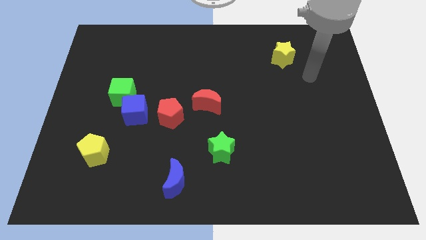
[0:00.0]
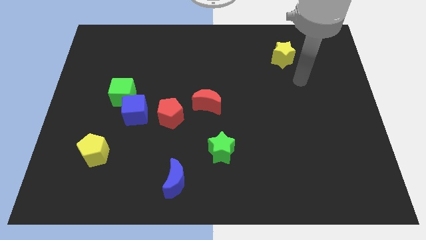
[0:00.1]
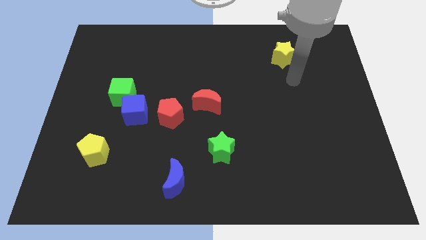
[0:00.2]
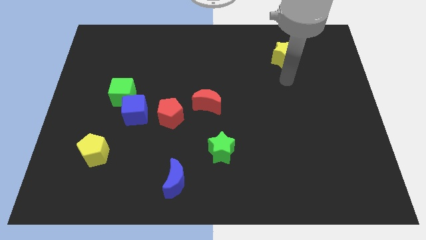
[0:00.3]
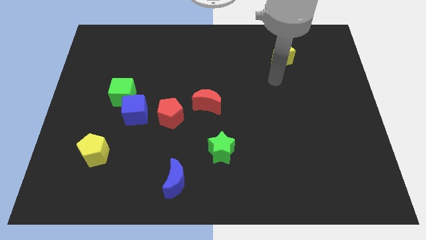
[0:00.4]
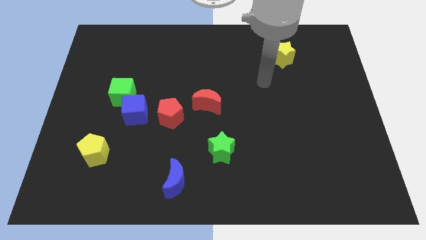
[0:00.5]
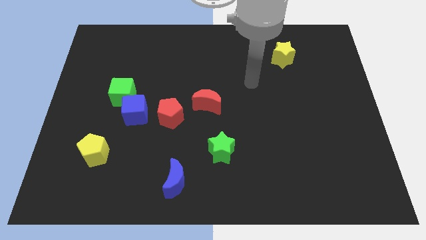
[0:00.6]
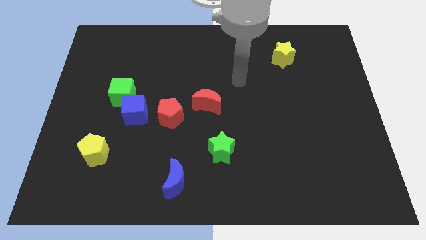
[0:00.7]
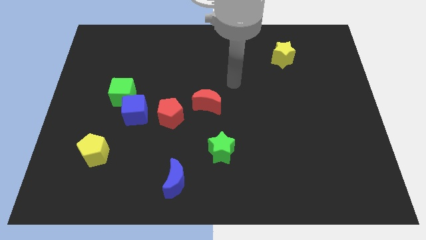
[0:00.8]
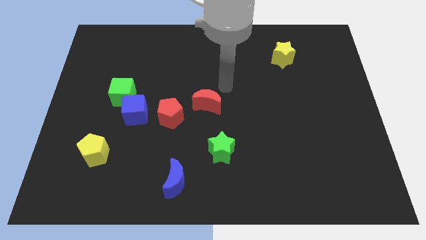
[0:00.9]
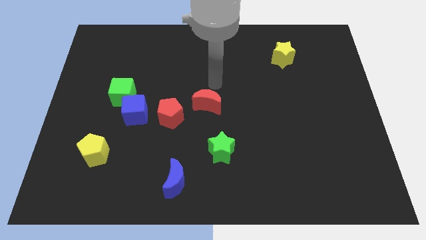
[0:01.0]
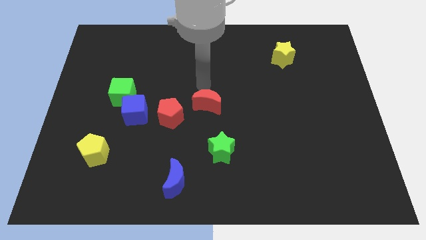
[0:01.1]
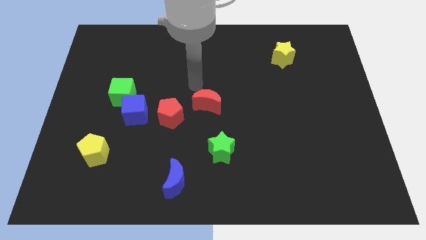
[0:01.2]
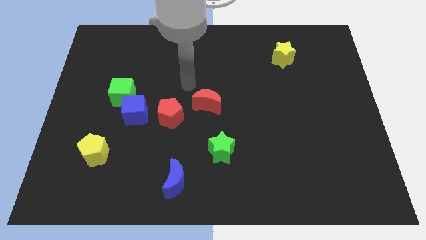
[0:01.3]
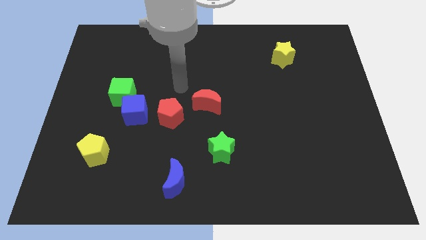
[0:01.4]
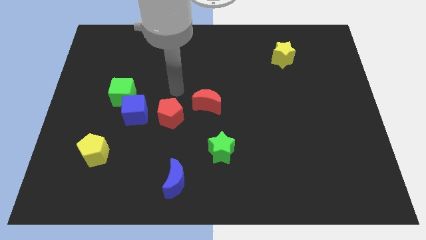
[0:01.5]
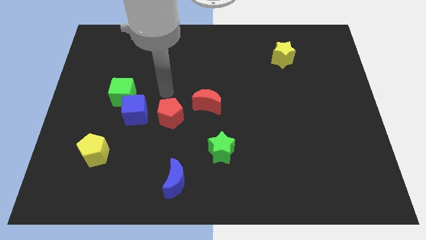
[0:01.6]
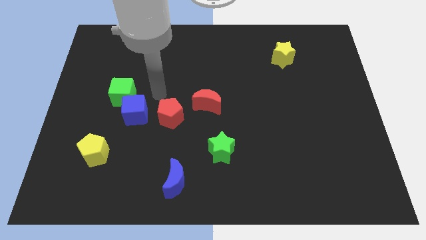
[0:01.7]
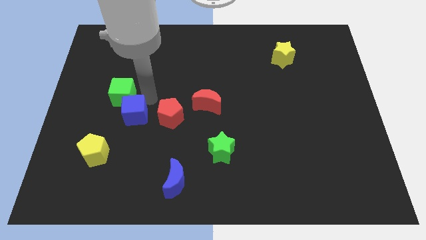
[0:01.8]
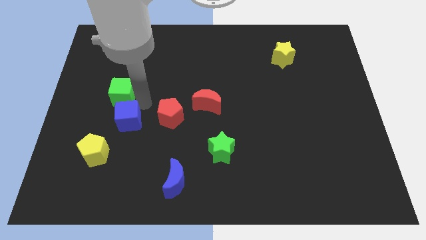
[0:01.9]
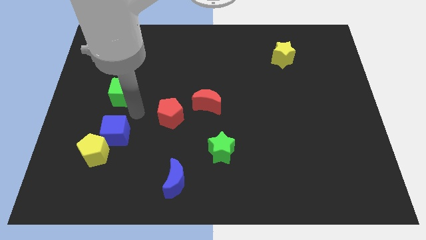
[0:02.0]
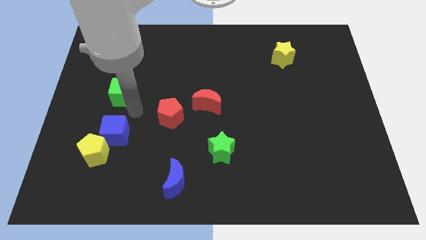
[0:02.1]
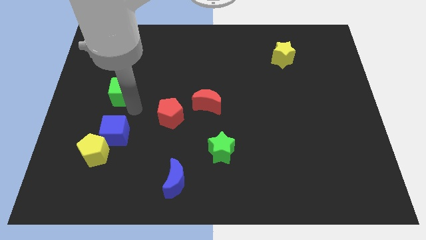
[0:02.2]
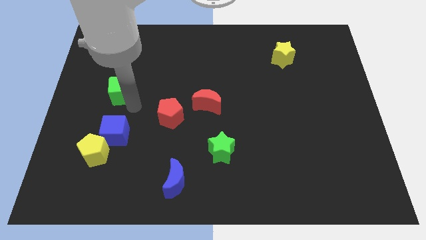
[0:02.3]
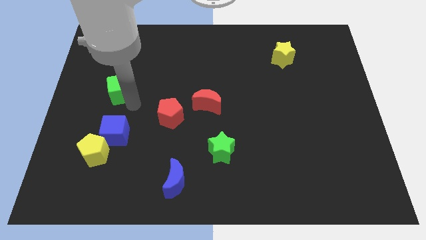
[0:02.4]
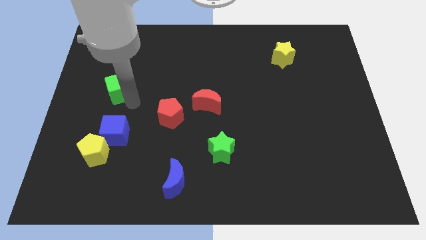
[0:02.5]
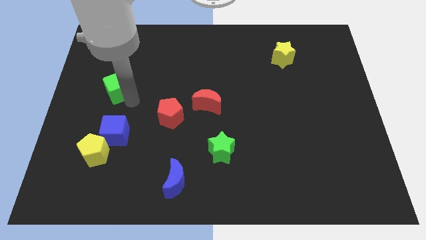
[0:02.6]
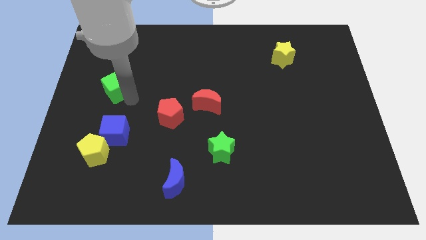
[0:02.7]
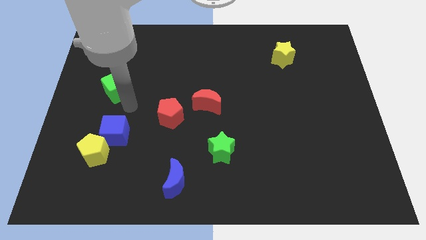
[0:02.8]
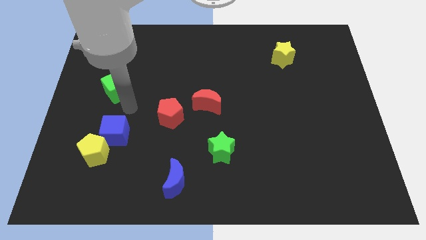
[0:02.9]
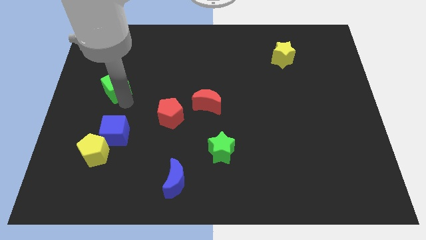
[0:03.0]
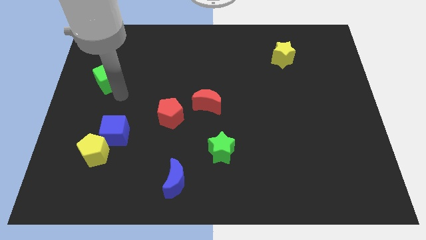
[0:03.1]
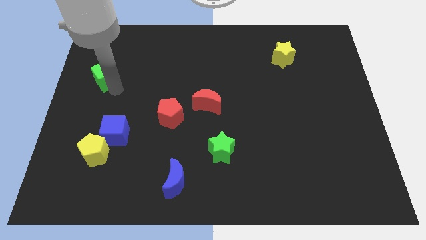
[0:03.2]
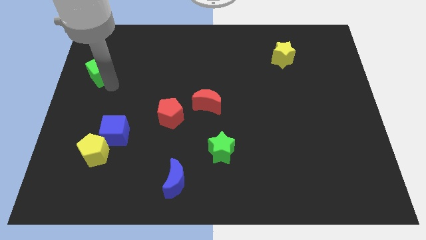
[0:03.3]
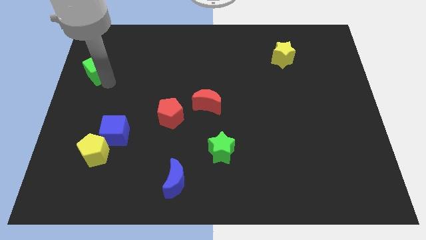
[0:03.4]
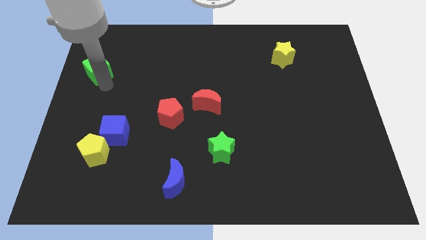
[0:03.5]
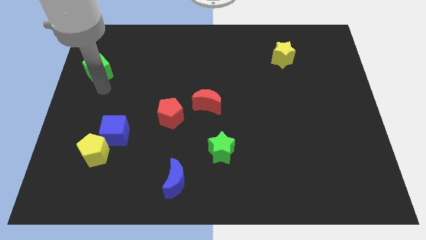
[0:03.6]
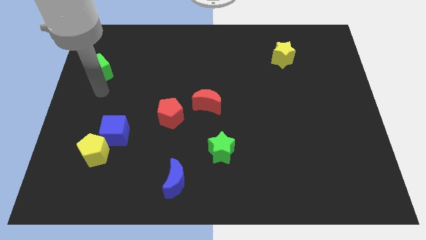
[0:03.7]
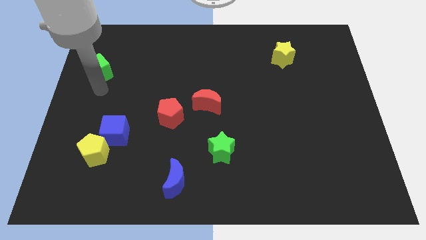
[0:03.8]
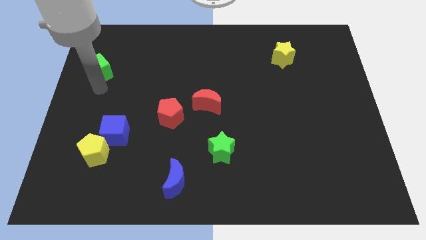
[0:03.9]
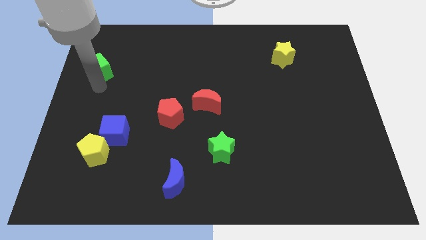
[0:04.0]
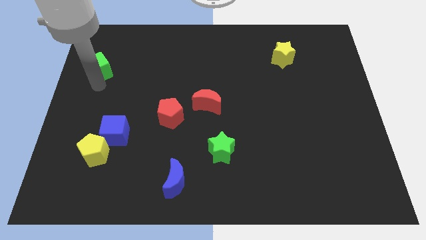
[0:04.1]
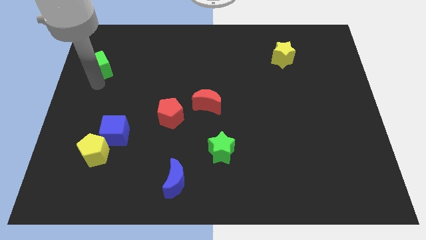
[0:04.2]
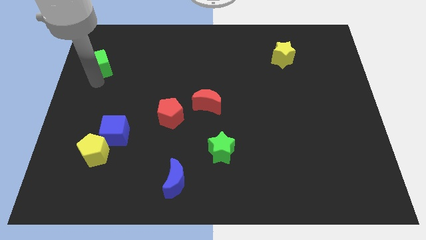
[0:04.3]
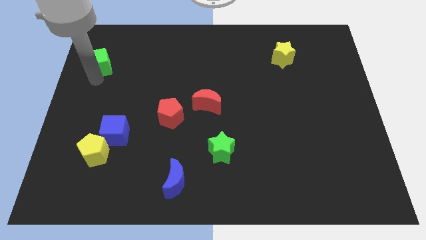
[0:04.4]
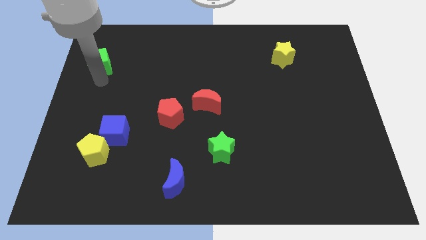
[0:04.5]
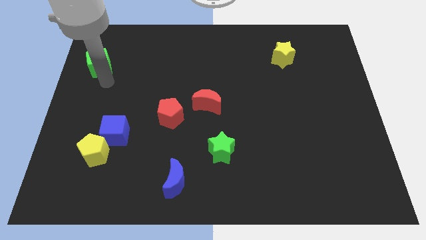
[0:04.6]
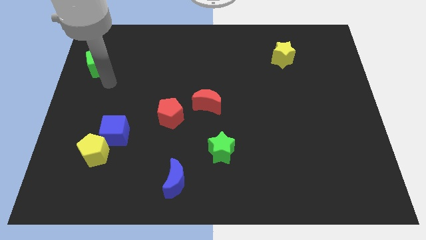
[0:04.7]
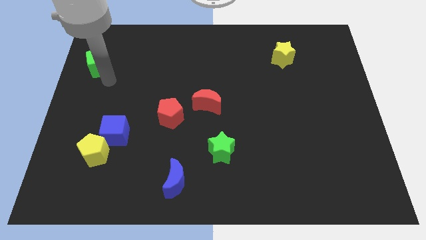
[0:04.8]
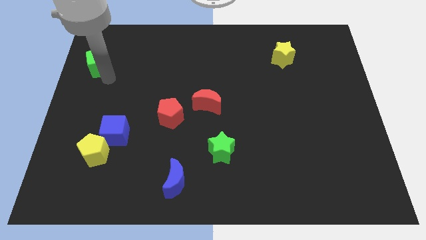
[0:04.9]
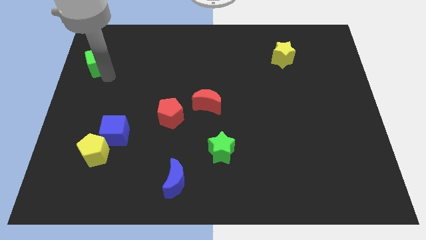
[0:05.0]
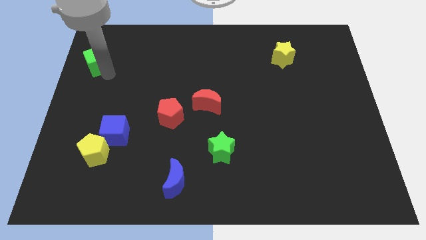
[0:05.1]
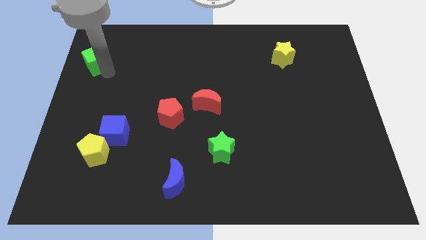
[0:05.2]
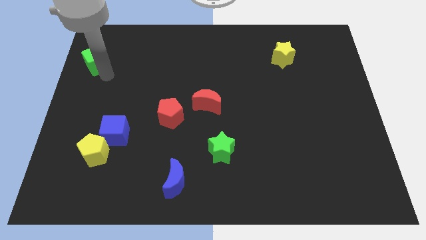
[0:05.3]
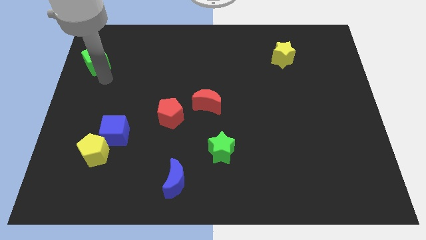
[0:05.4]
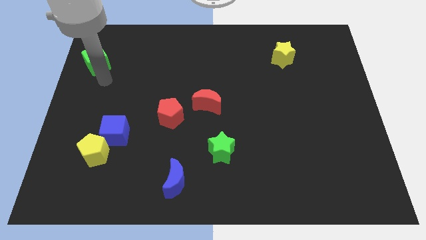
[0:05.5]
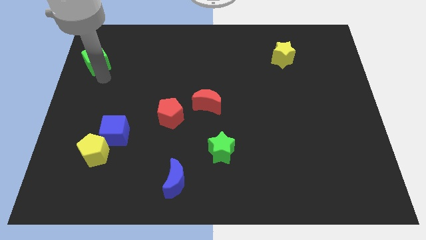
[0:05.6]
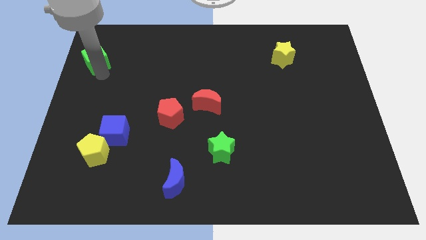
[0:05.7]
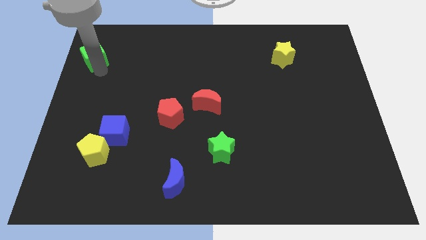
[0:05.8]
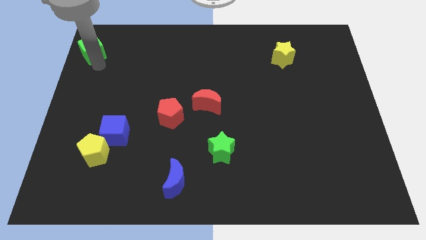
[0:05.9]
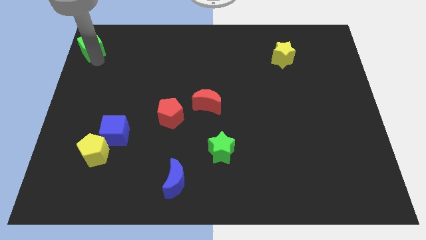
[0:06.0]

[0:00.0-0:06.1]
slide the green cube to the top left of the board

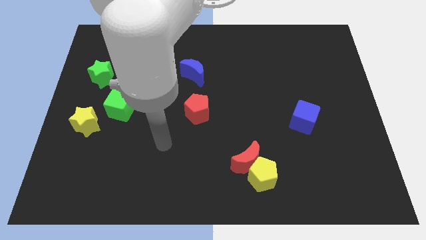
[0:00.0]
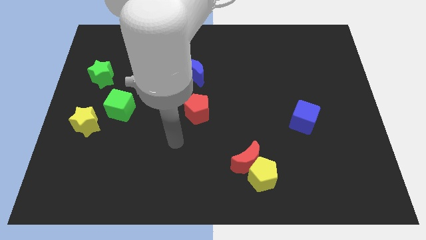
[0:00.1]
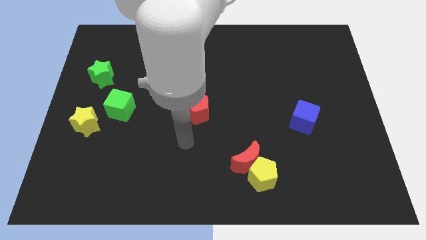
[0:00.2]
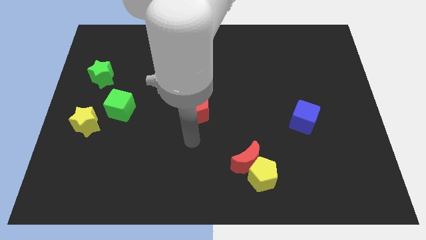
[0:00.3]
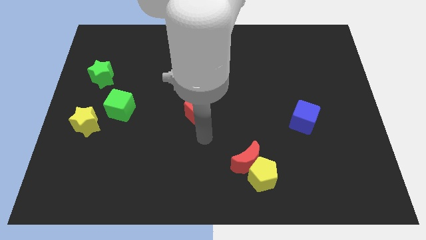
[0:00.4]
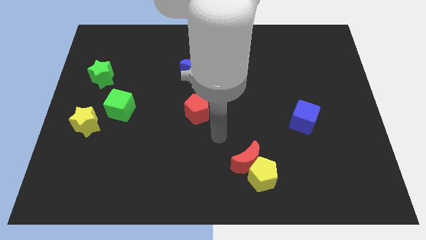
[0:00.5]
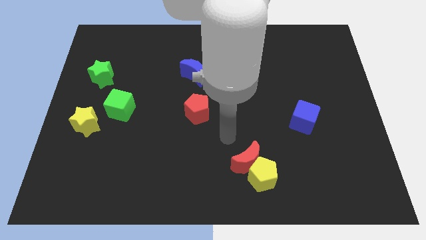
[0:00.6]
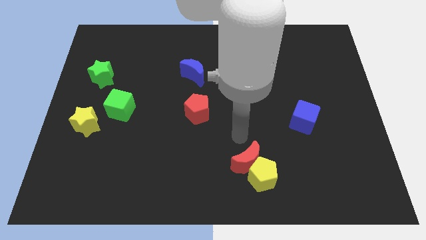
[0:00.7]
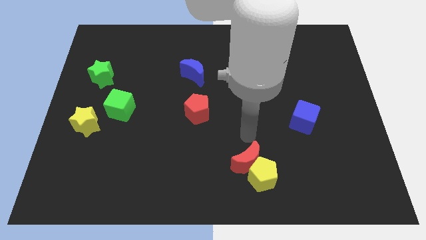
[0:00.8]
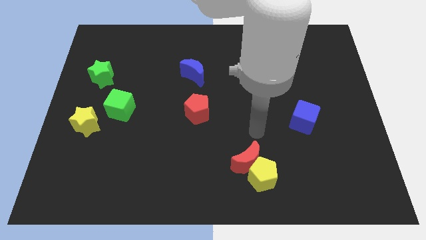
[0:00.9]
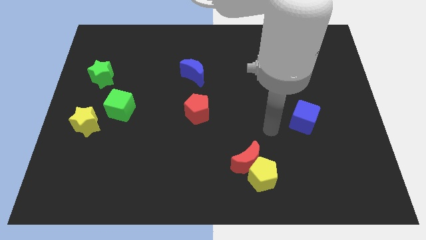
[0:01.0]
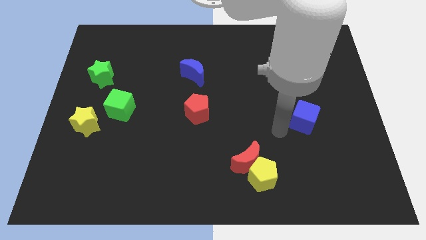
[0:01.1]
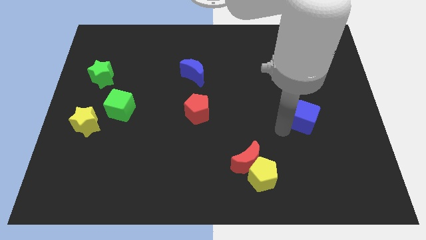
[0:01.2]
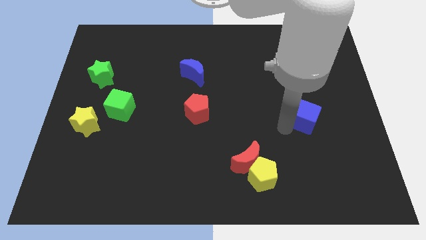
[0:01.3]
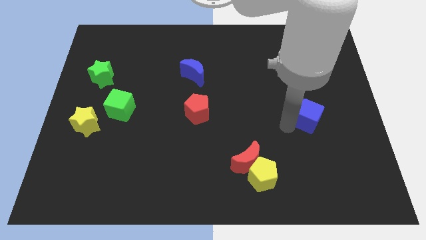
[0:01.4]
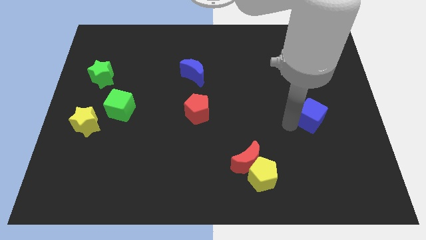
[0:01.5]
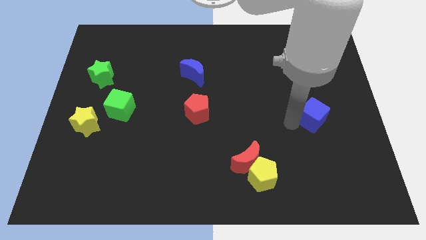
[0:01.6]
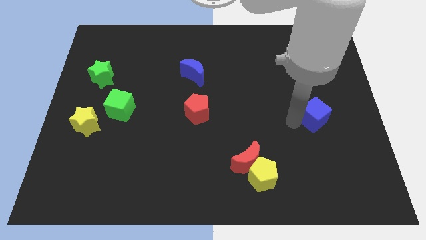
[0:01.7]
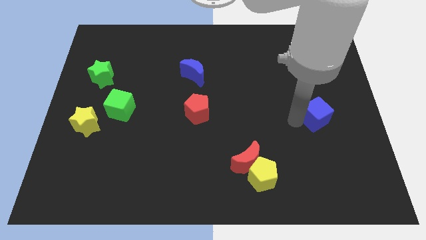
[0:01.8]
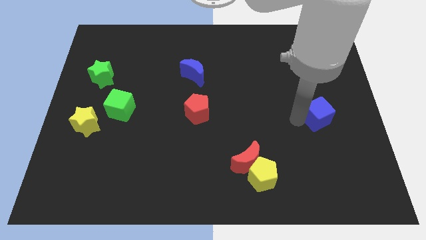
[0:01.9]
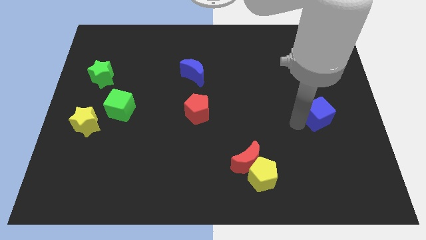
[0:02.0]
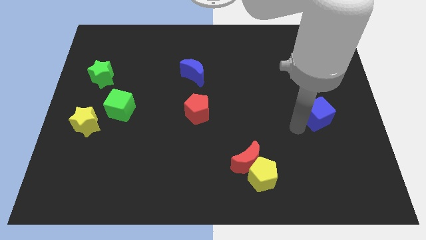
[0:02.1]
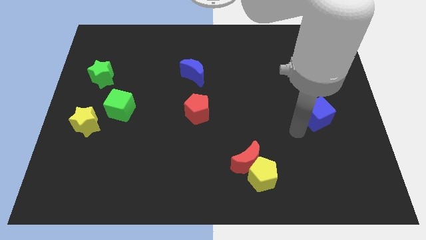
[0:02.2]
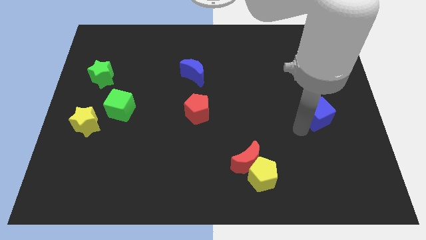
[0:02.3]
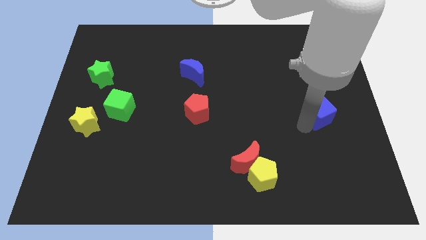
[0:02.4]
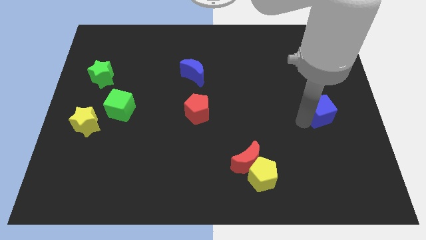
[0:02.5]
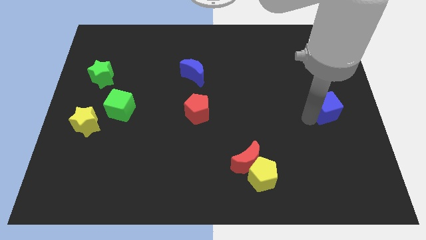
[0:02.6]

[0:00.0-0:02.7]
move the blue cube to the right side of the board
